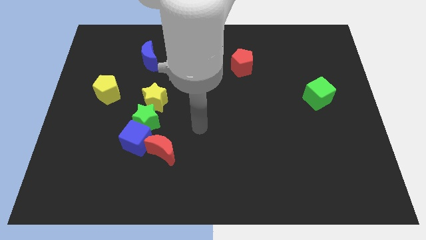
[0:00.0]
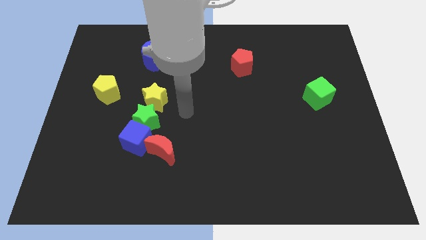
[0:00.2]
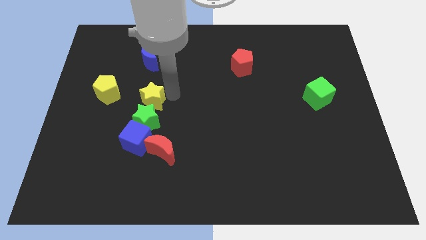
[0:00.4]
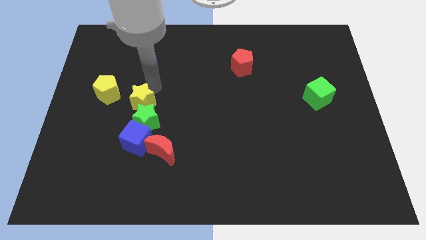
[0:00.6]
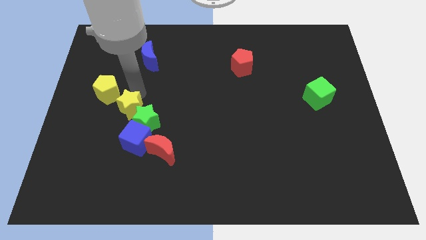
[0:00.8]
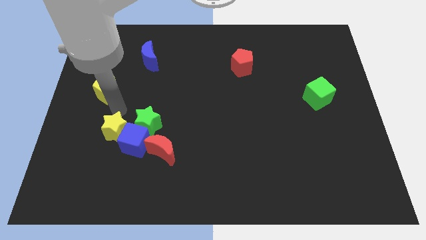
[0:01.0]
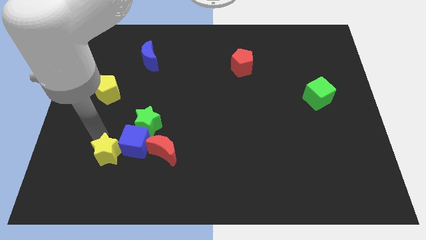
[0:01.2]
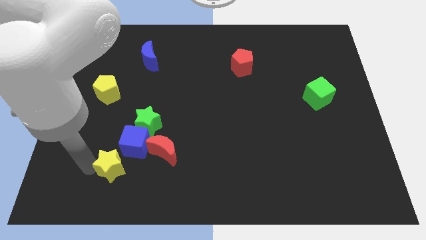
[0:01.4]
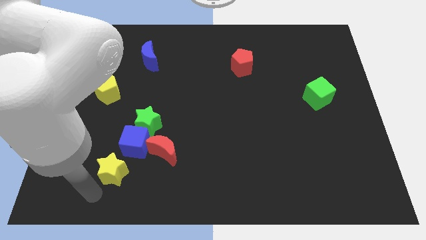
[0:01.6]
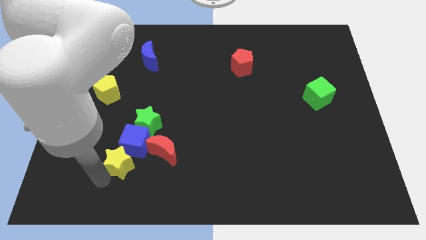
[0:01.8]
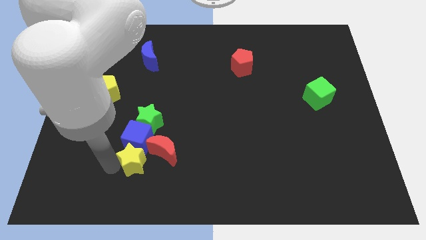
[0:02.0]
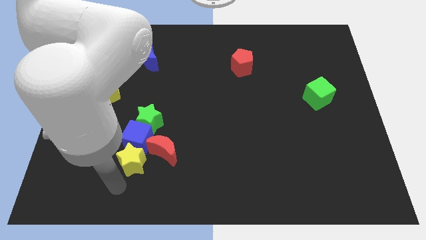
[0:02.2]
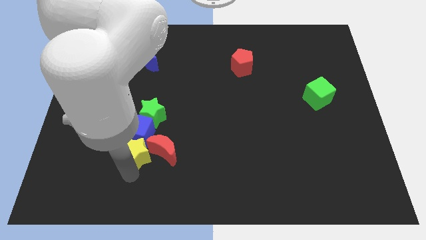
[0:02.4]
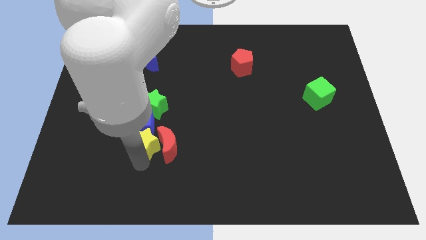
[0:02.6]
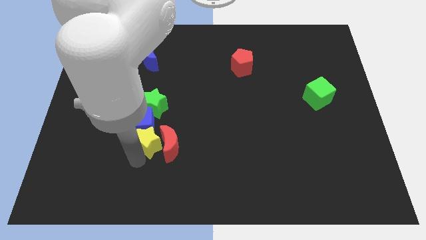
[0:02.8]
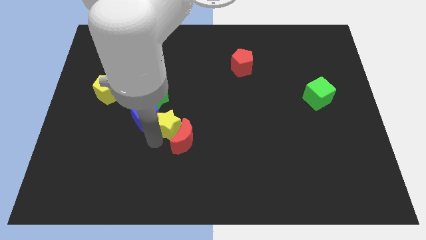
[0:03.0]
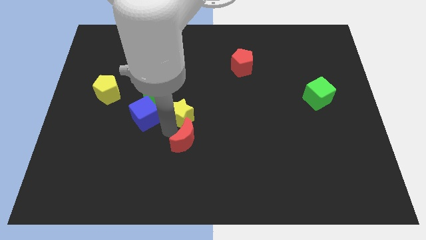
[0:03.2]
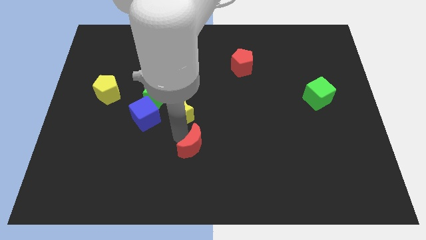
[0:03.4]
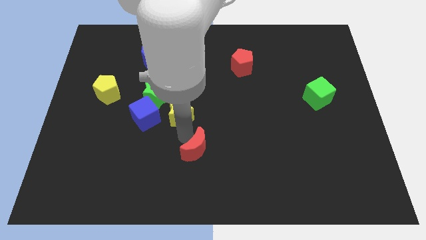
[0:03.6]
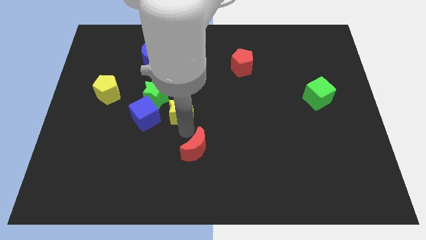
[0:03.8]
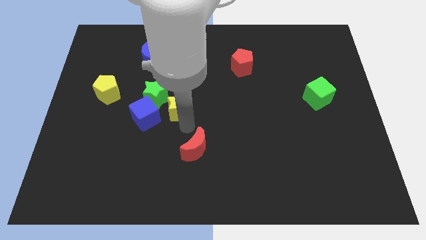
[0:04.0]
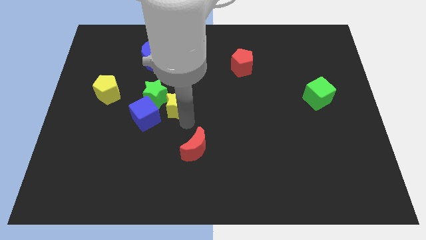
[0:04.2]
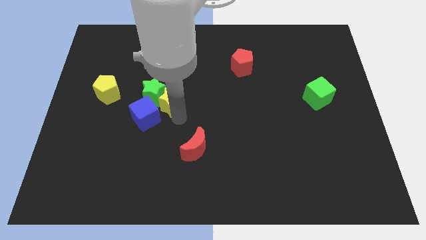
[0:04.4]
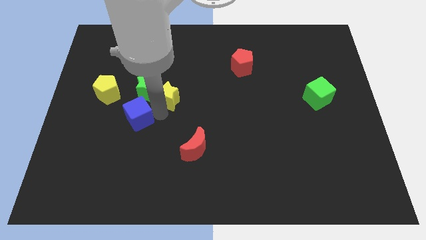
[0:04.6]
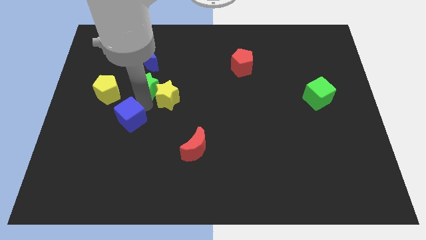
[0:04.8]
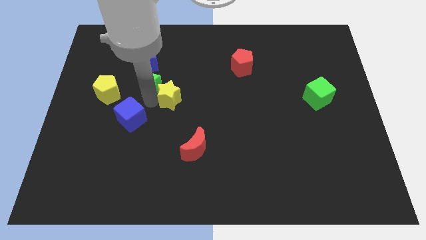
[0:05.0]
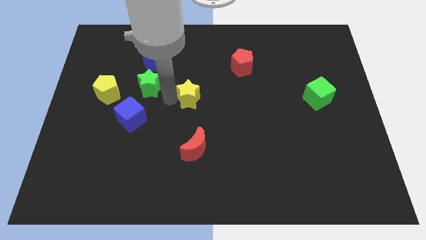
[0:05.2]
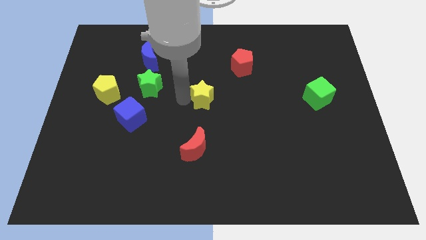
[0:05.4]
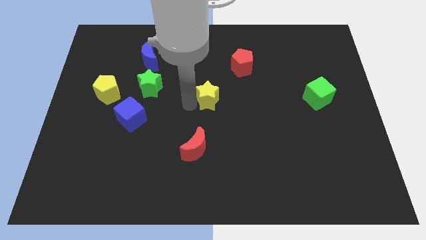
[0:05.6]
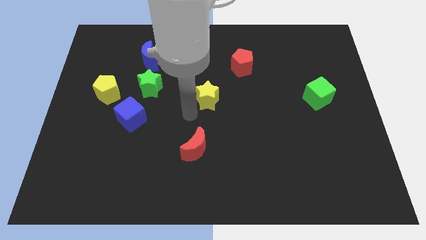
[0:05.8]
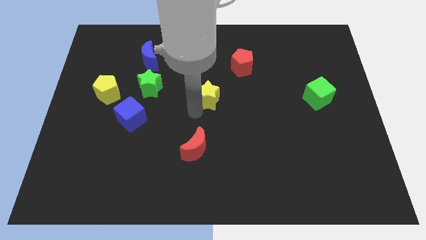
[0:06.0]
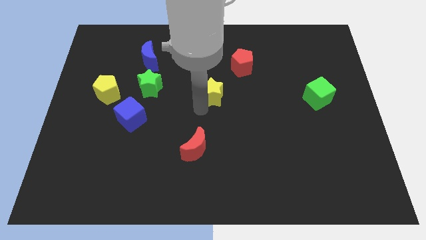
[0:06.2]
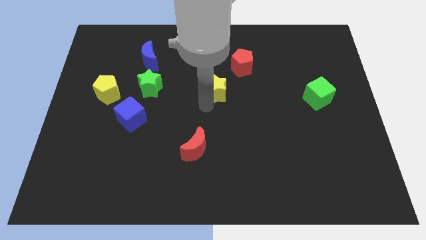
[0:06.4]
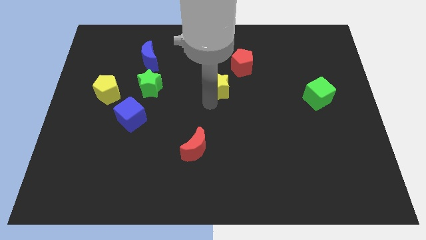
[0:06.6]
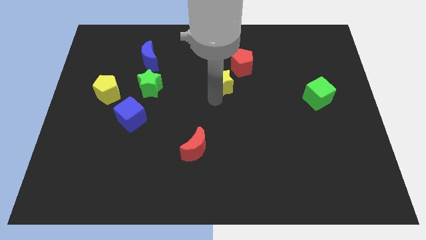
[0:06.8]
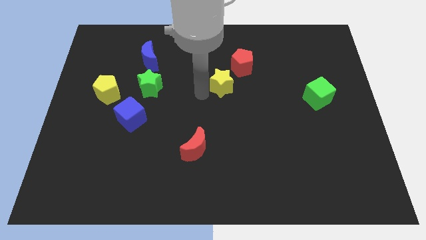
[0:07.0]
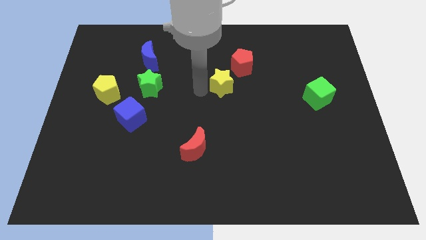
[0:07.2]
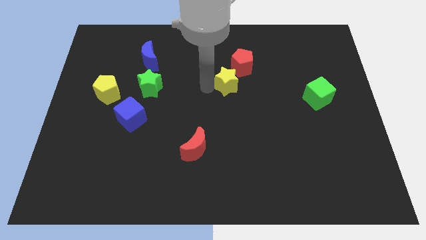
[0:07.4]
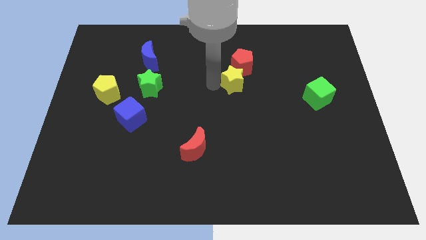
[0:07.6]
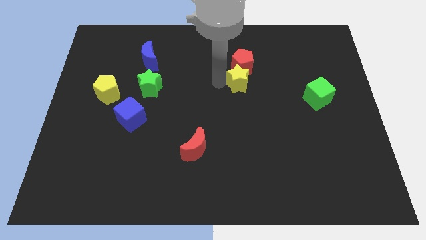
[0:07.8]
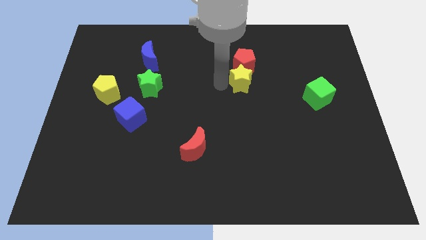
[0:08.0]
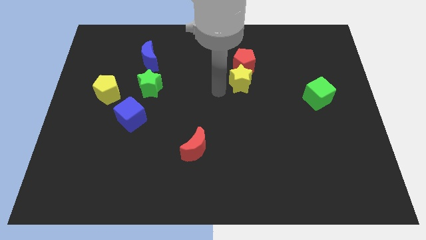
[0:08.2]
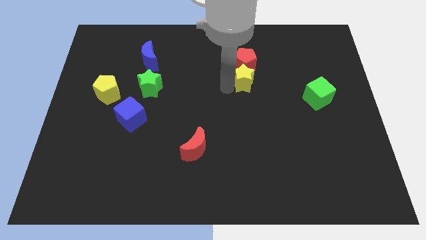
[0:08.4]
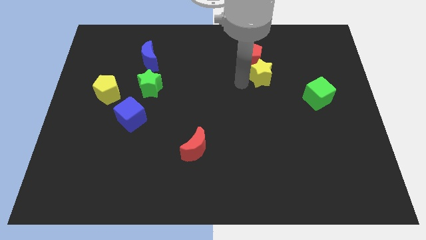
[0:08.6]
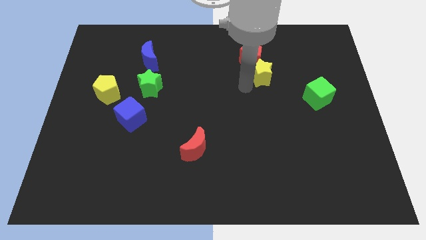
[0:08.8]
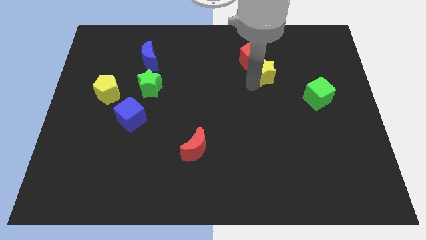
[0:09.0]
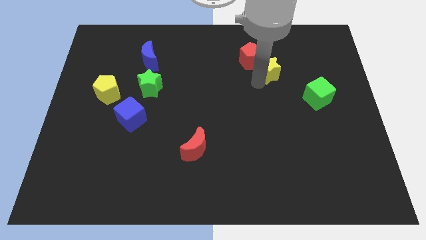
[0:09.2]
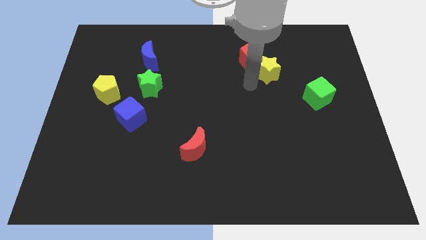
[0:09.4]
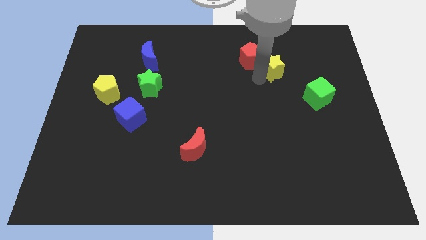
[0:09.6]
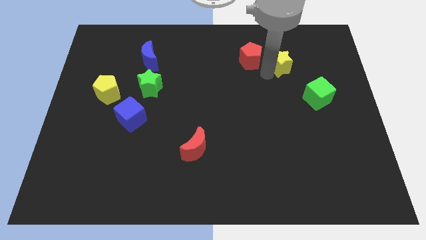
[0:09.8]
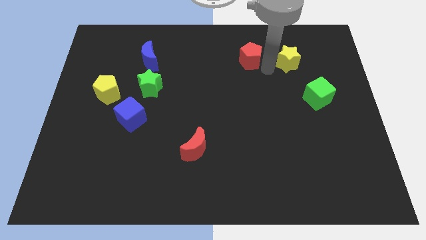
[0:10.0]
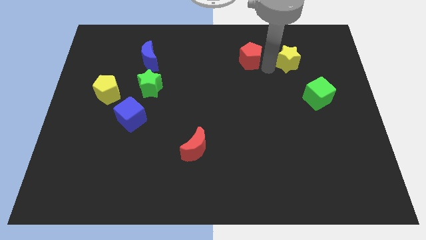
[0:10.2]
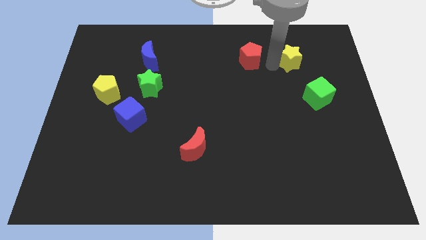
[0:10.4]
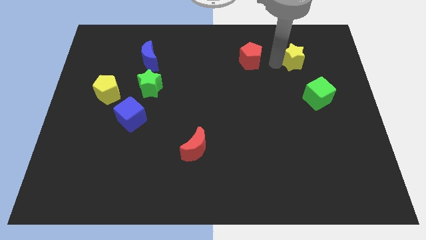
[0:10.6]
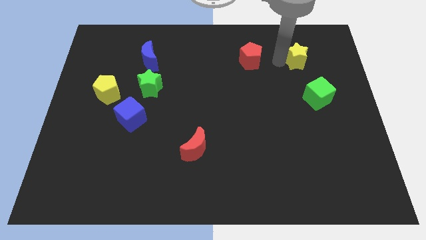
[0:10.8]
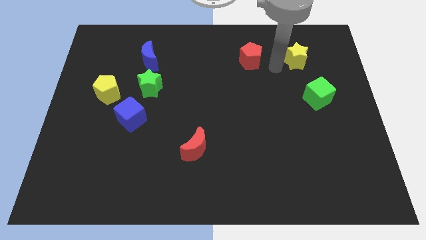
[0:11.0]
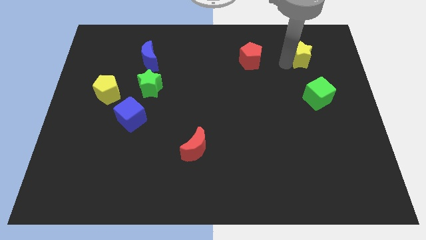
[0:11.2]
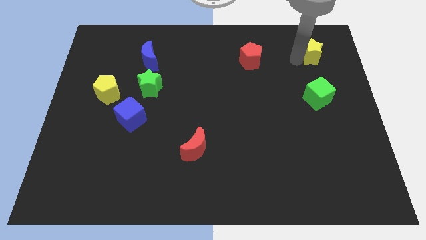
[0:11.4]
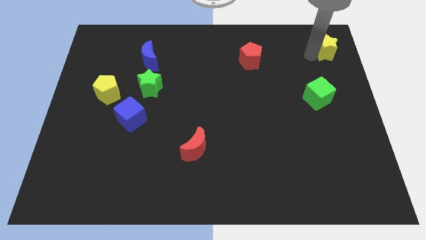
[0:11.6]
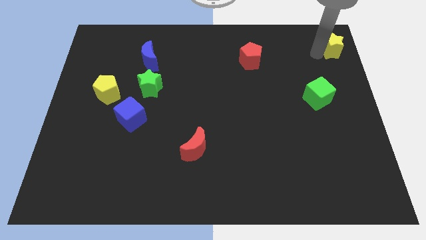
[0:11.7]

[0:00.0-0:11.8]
move the yellow star to the top right corner

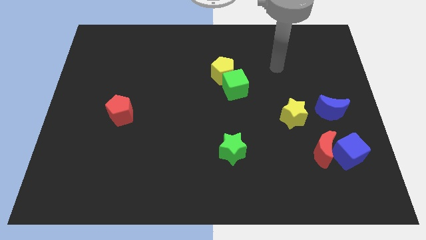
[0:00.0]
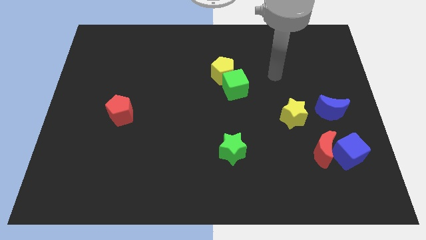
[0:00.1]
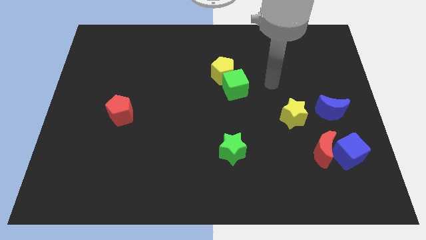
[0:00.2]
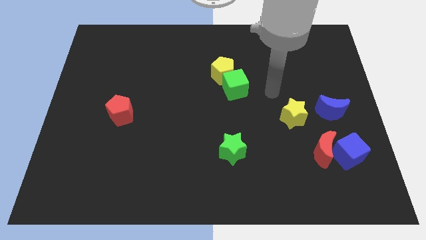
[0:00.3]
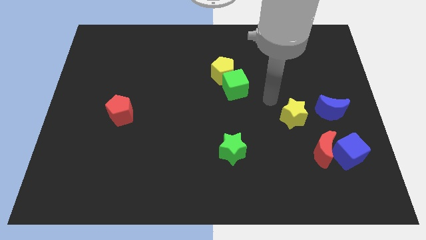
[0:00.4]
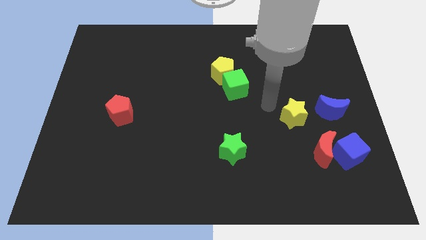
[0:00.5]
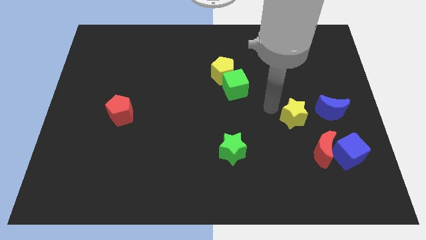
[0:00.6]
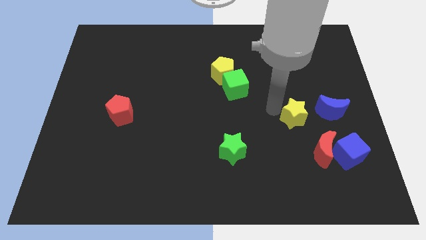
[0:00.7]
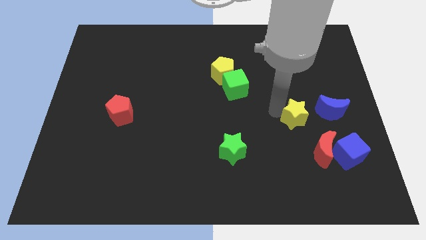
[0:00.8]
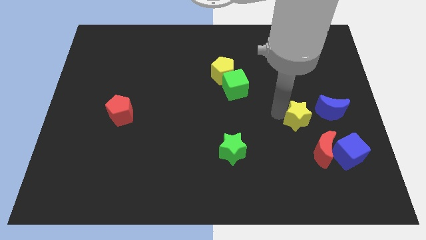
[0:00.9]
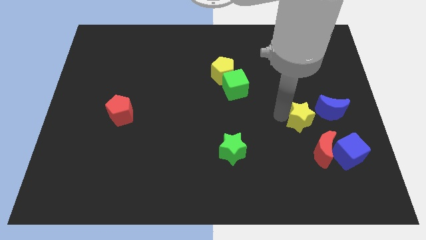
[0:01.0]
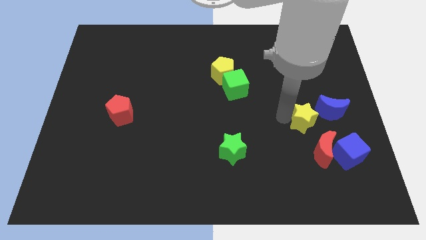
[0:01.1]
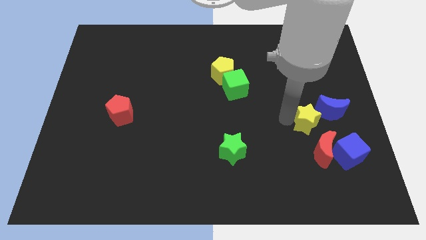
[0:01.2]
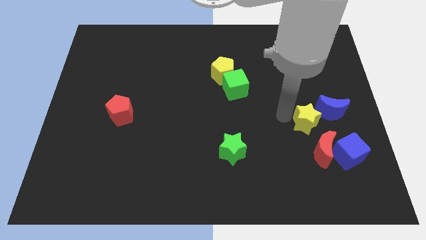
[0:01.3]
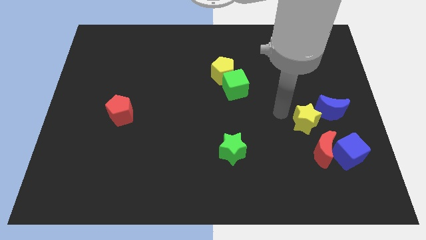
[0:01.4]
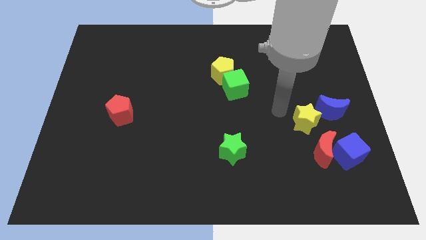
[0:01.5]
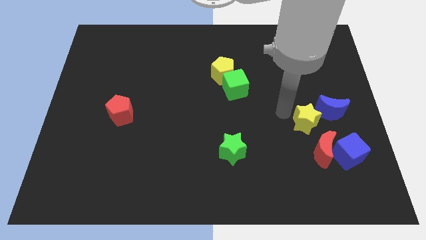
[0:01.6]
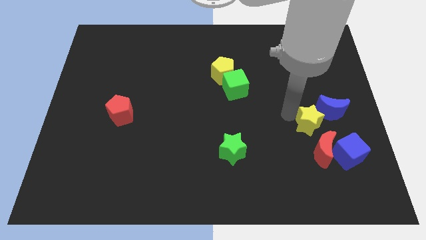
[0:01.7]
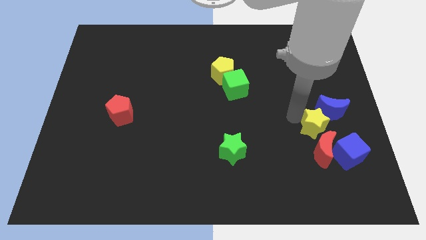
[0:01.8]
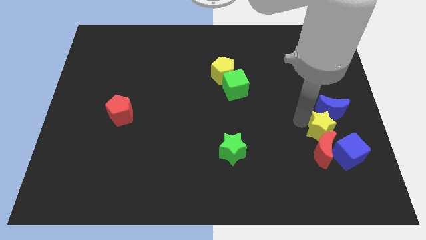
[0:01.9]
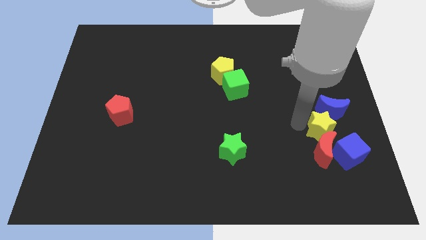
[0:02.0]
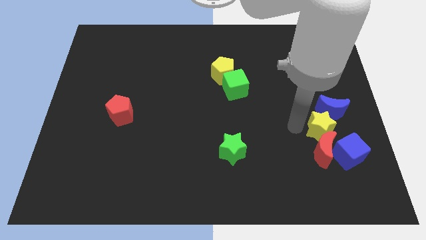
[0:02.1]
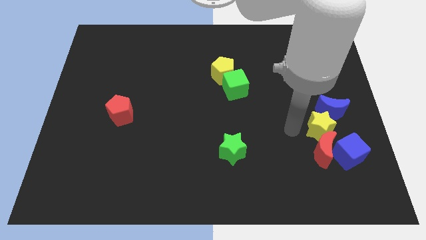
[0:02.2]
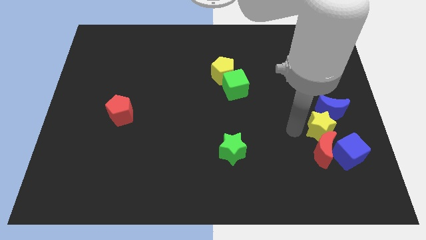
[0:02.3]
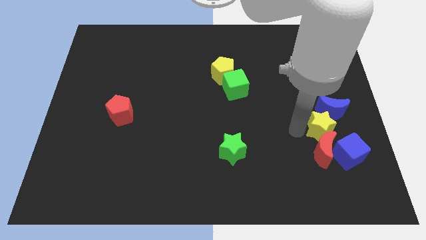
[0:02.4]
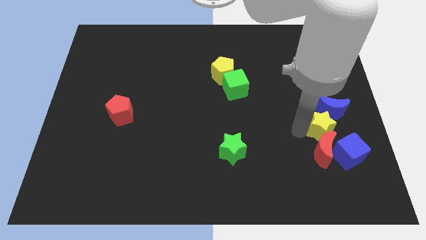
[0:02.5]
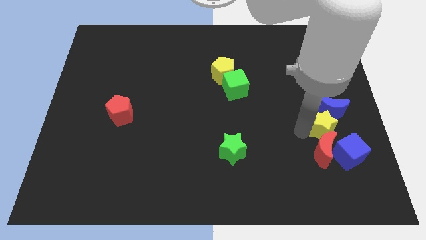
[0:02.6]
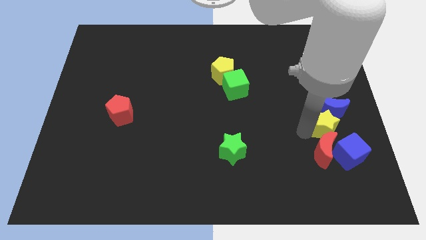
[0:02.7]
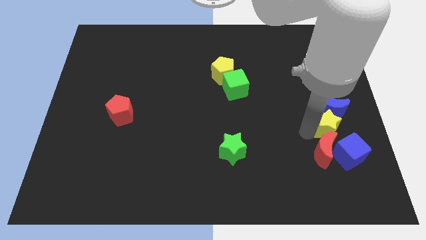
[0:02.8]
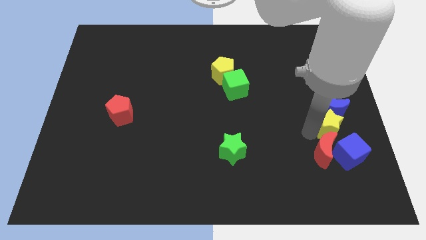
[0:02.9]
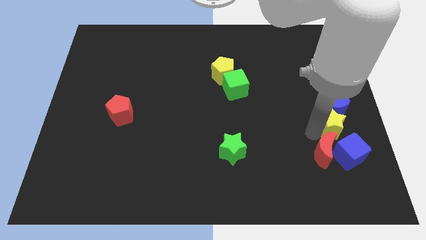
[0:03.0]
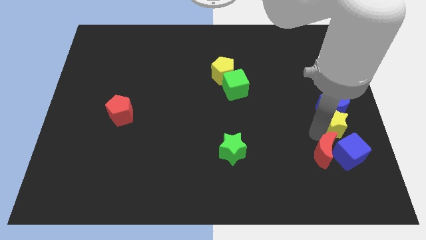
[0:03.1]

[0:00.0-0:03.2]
move the yellow star to the right side
